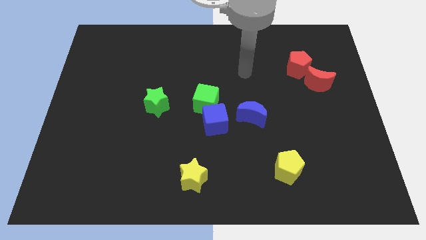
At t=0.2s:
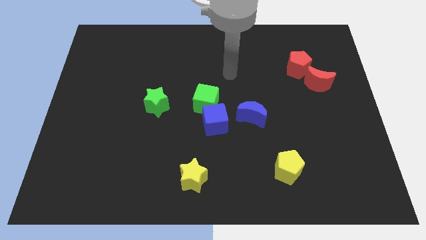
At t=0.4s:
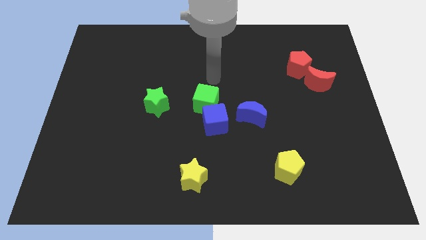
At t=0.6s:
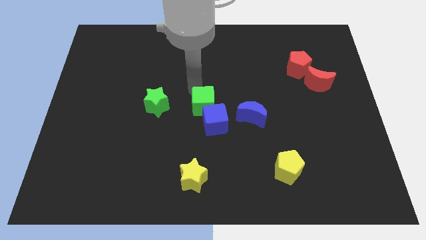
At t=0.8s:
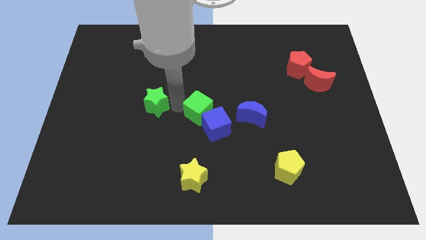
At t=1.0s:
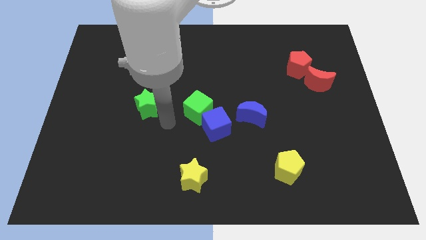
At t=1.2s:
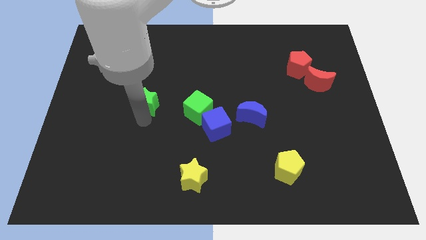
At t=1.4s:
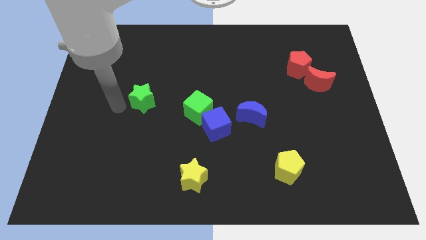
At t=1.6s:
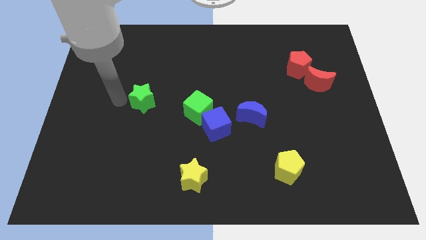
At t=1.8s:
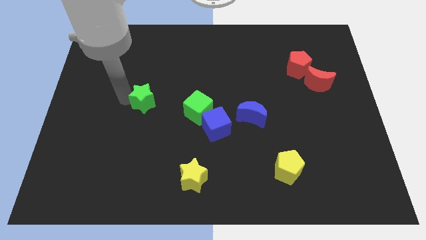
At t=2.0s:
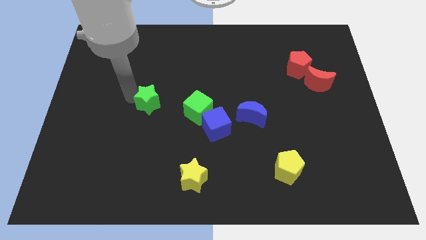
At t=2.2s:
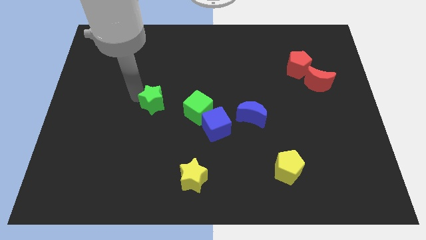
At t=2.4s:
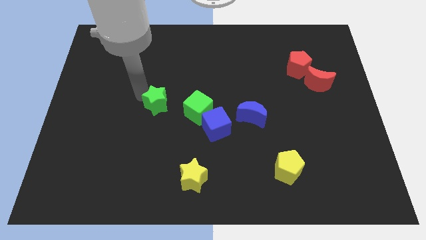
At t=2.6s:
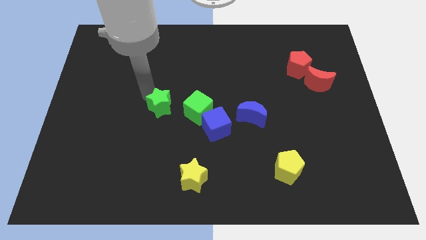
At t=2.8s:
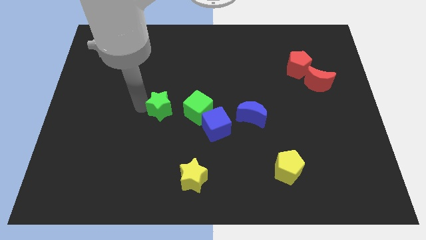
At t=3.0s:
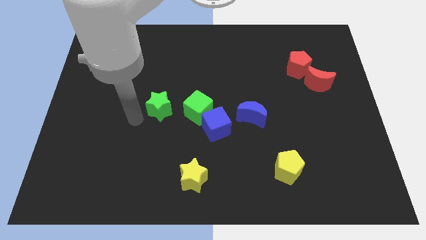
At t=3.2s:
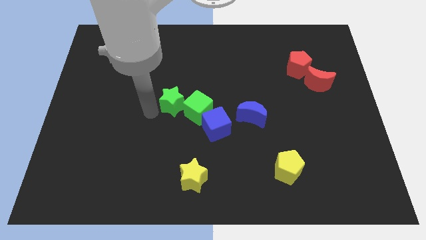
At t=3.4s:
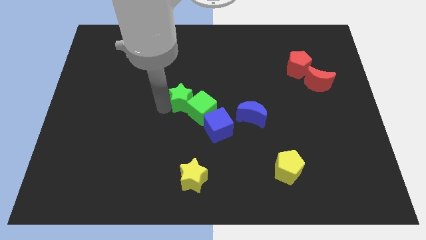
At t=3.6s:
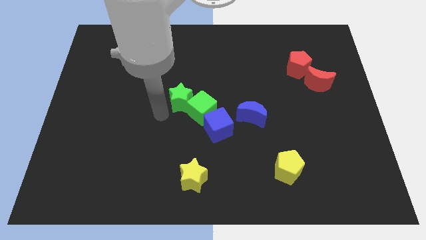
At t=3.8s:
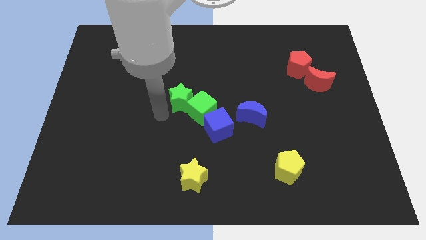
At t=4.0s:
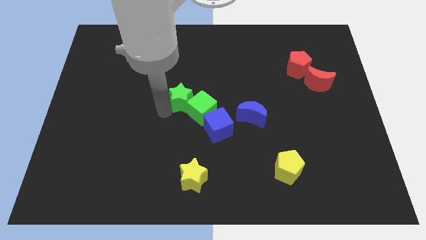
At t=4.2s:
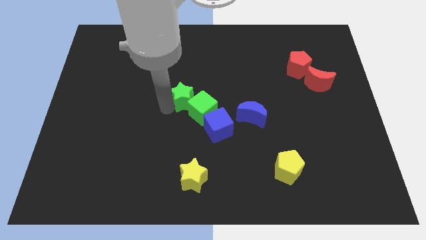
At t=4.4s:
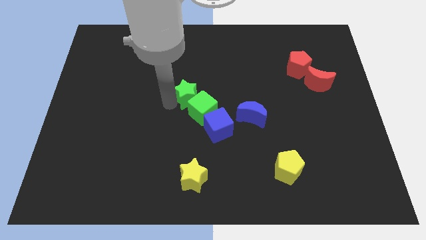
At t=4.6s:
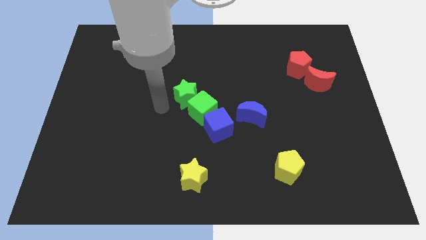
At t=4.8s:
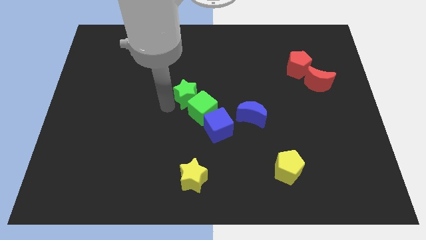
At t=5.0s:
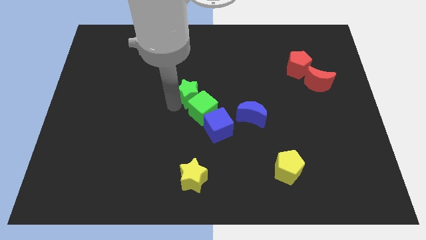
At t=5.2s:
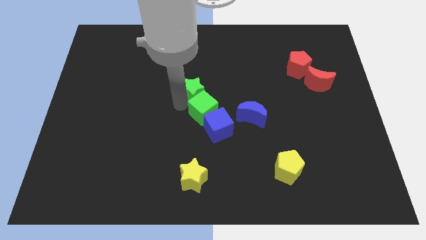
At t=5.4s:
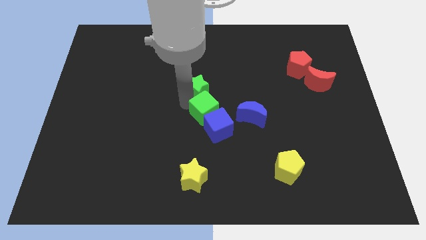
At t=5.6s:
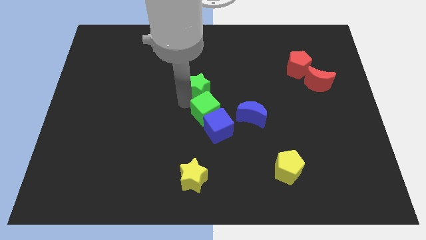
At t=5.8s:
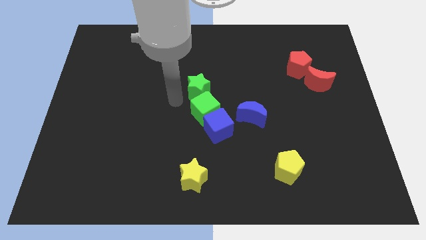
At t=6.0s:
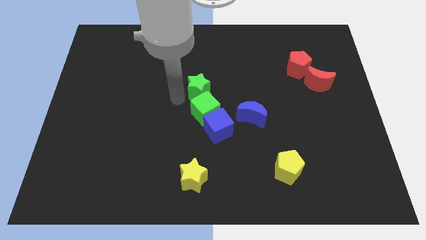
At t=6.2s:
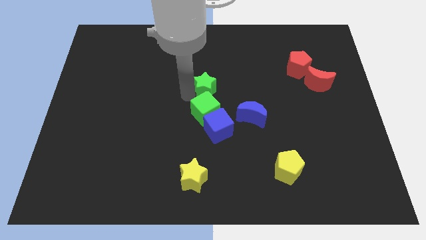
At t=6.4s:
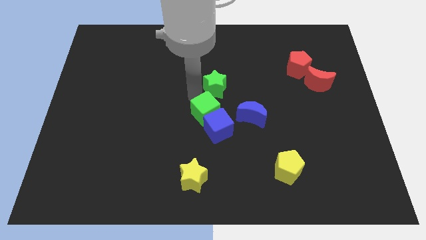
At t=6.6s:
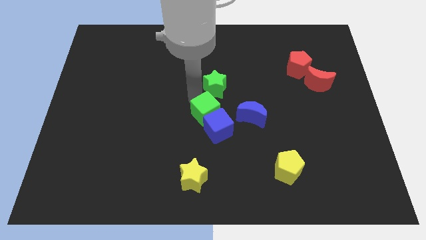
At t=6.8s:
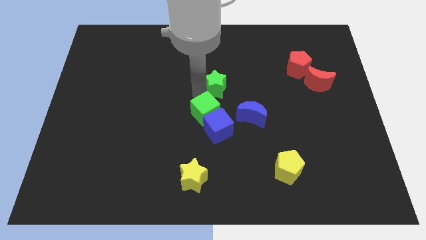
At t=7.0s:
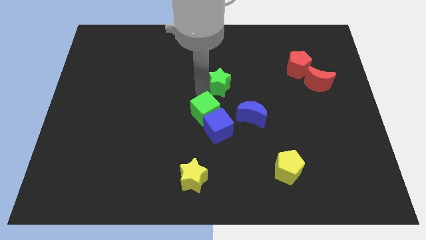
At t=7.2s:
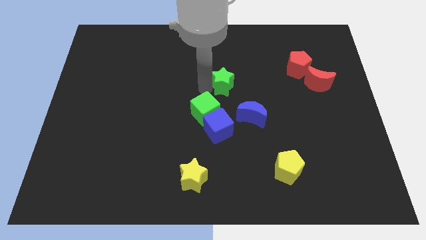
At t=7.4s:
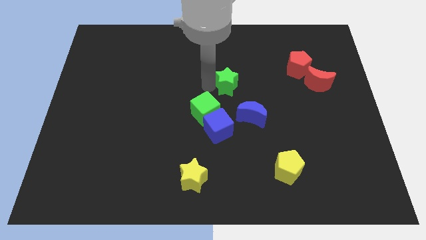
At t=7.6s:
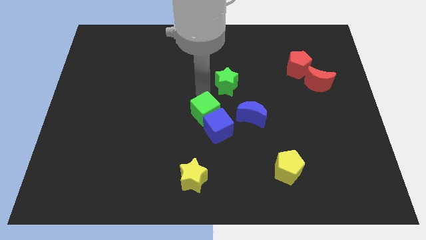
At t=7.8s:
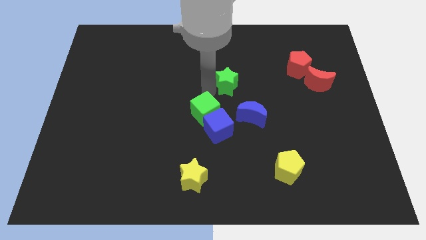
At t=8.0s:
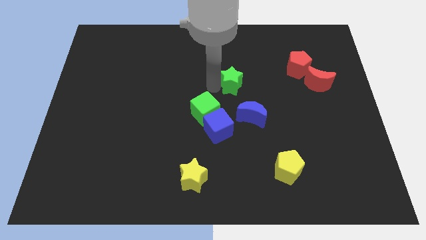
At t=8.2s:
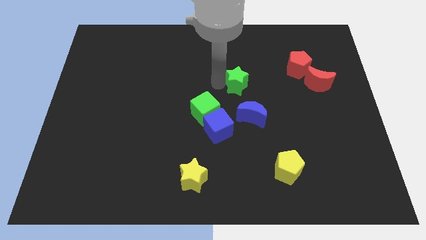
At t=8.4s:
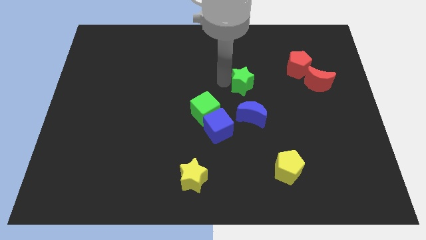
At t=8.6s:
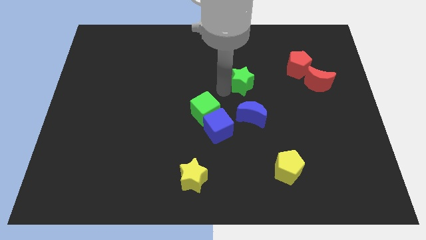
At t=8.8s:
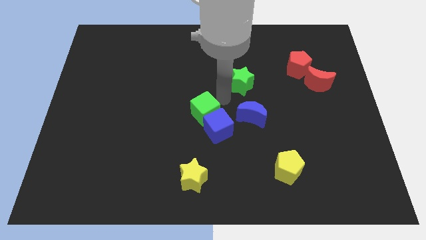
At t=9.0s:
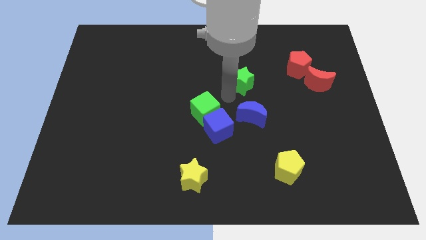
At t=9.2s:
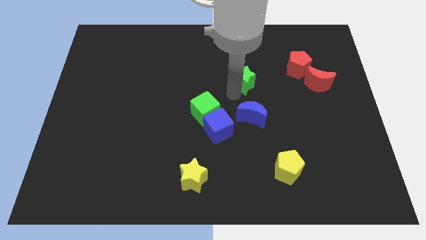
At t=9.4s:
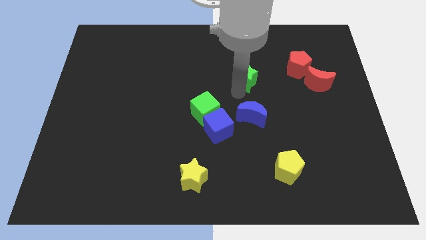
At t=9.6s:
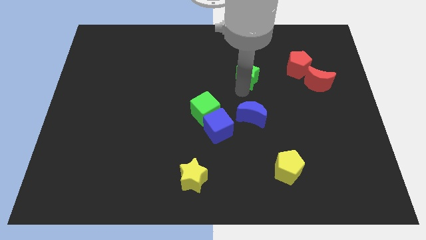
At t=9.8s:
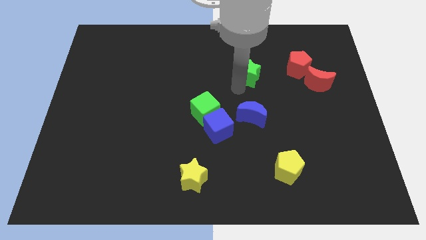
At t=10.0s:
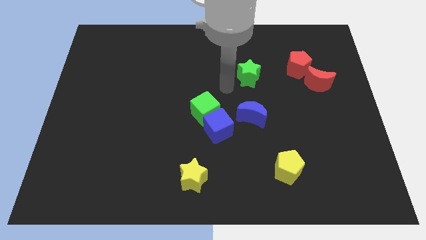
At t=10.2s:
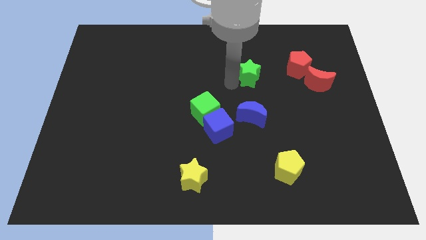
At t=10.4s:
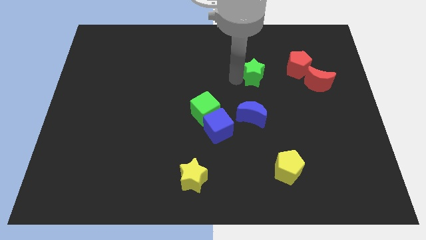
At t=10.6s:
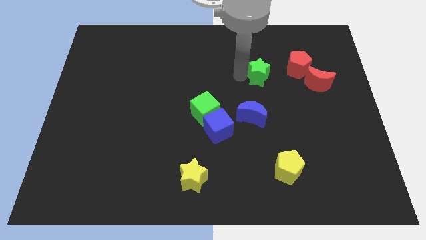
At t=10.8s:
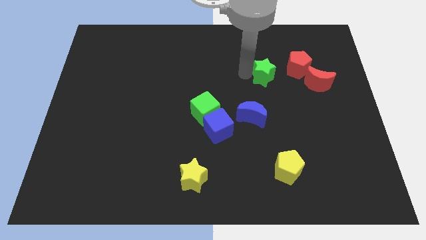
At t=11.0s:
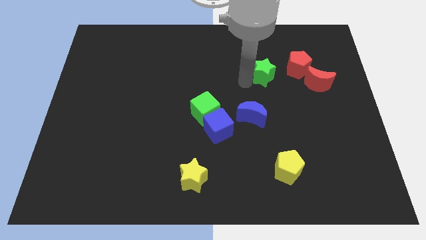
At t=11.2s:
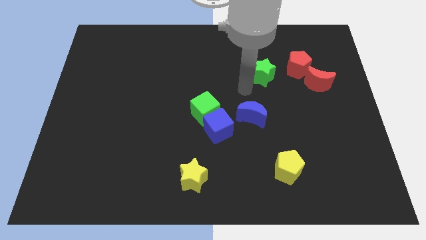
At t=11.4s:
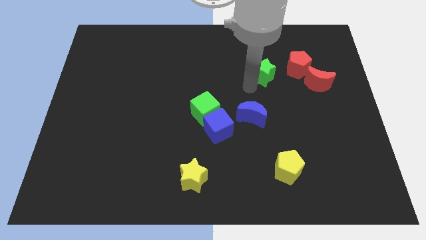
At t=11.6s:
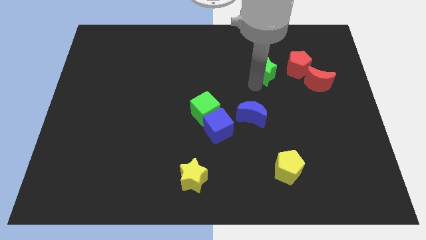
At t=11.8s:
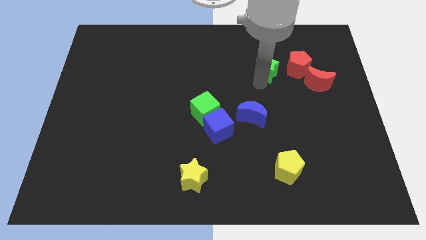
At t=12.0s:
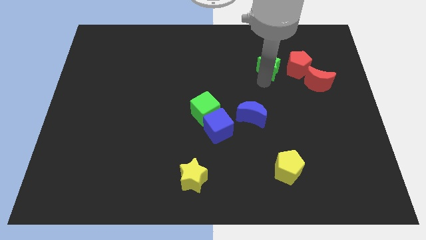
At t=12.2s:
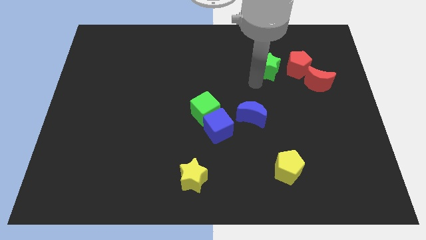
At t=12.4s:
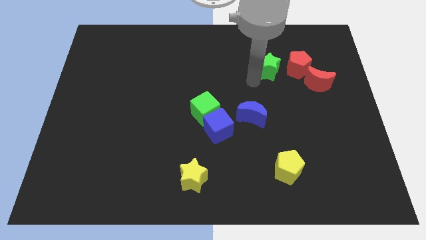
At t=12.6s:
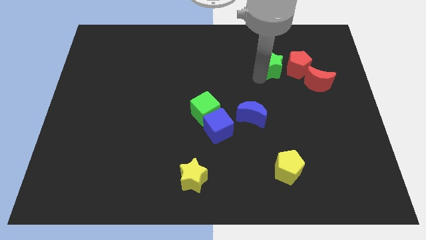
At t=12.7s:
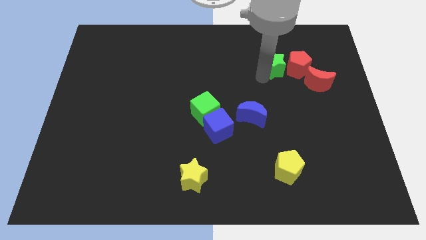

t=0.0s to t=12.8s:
put the green star to the top left side of the red moon
